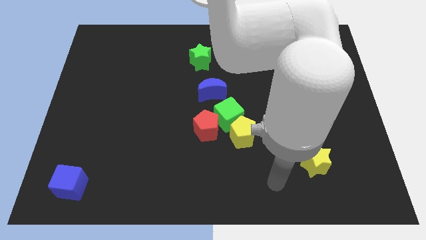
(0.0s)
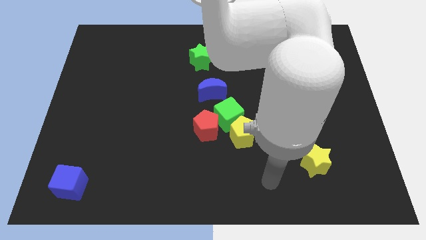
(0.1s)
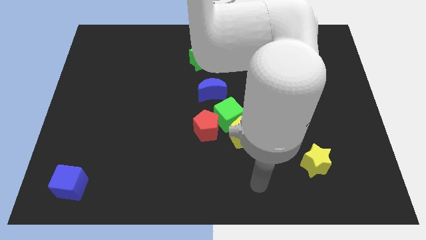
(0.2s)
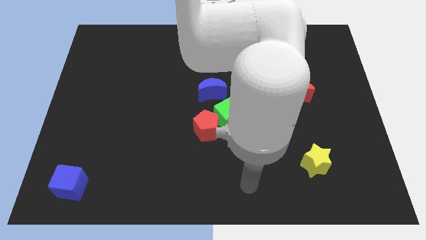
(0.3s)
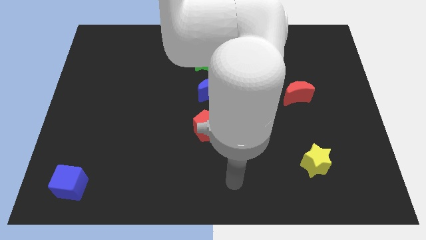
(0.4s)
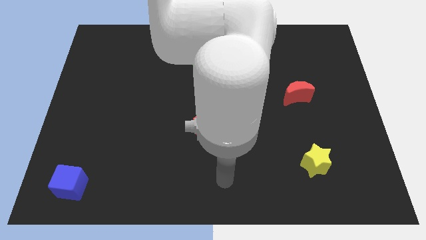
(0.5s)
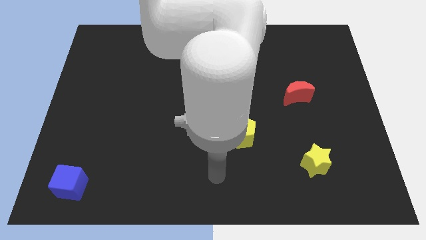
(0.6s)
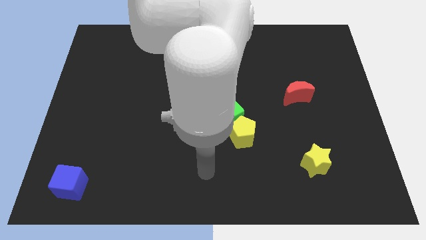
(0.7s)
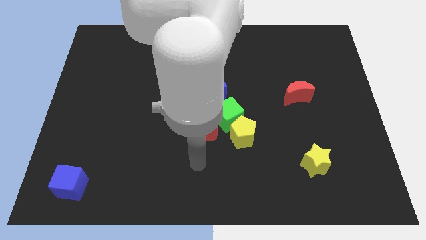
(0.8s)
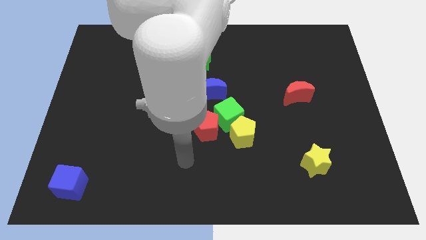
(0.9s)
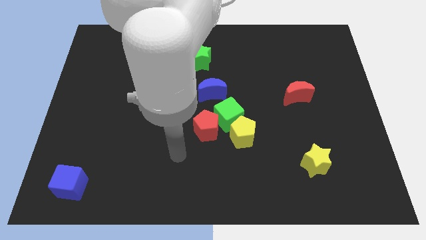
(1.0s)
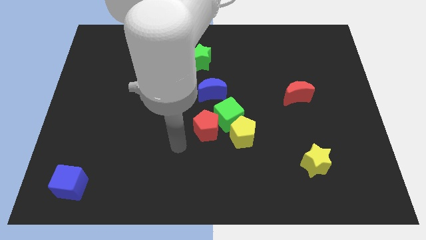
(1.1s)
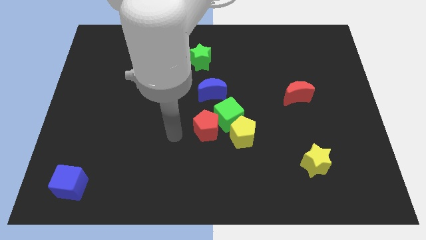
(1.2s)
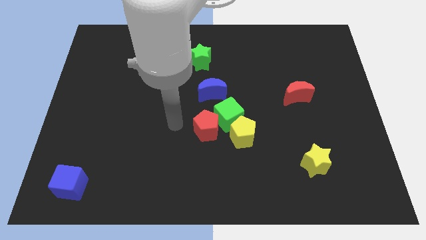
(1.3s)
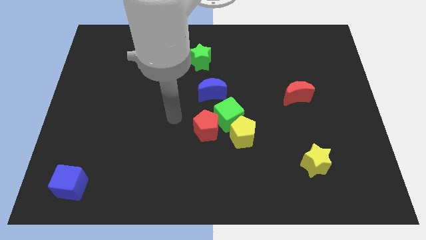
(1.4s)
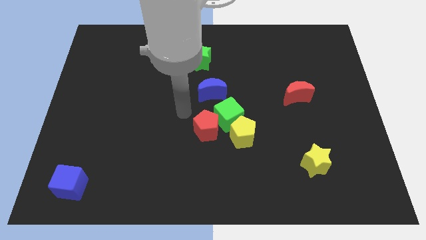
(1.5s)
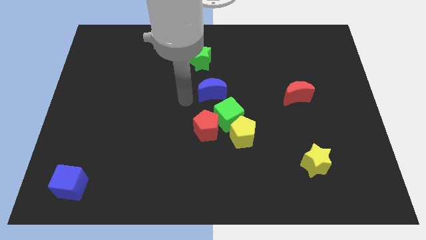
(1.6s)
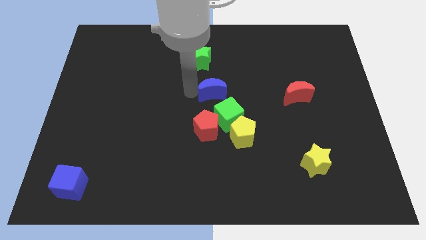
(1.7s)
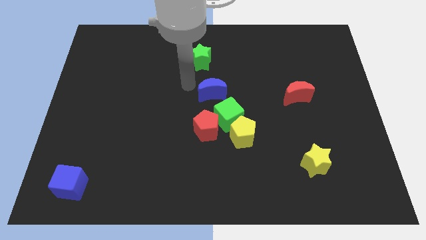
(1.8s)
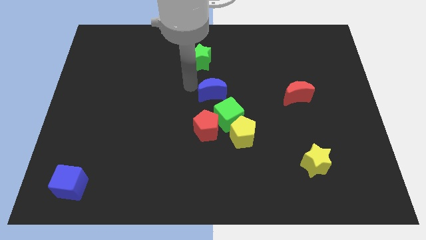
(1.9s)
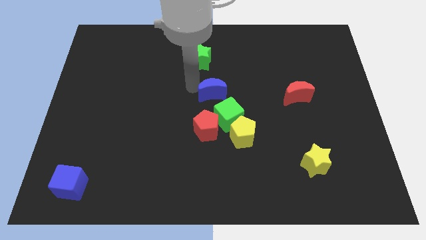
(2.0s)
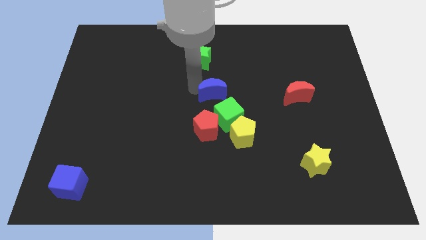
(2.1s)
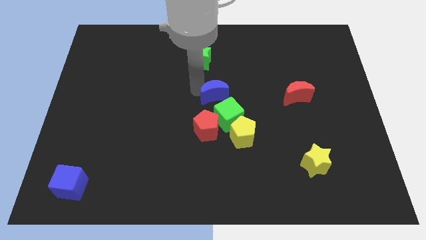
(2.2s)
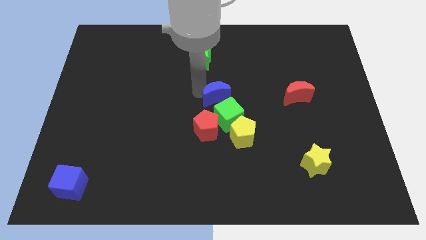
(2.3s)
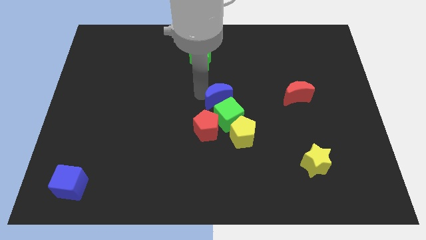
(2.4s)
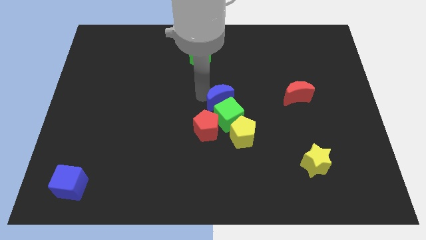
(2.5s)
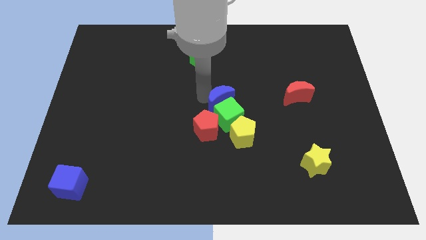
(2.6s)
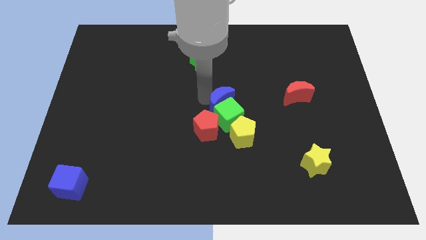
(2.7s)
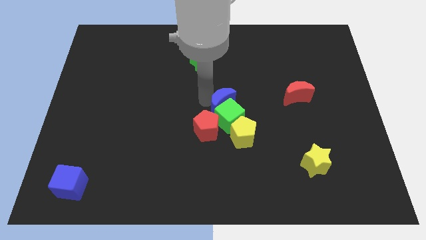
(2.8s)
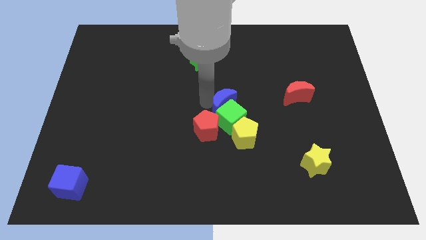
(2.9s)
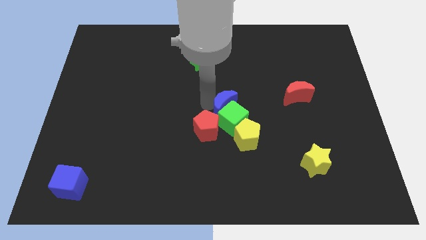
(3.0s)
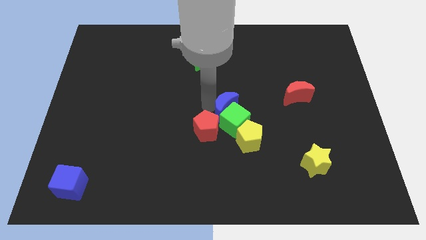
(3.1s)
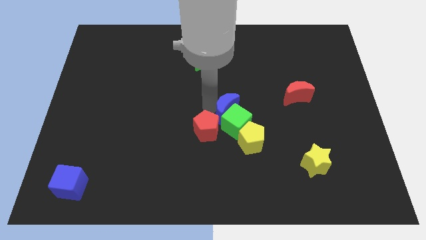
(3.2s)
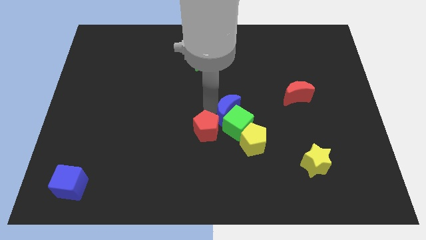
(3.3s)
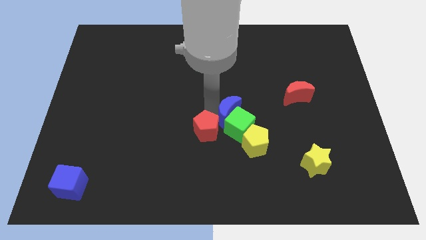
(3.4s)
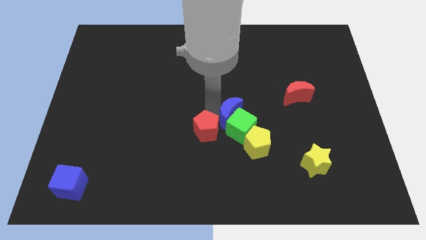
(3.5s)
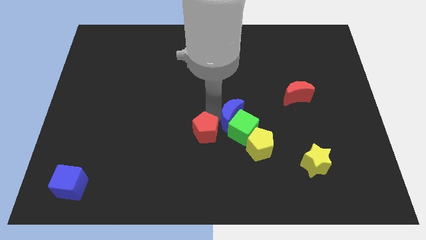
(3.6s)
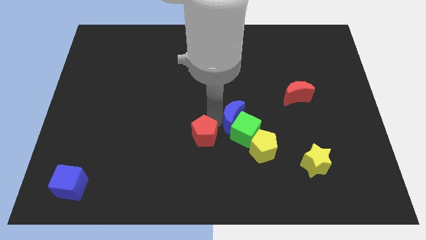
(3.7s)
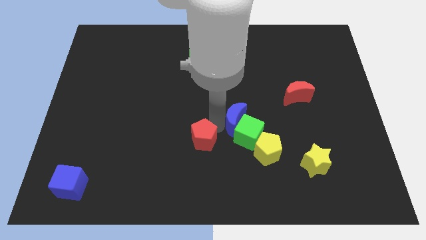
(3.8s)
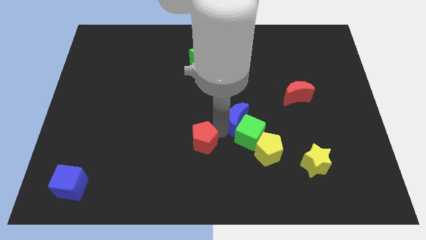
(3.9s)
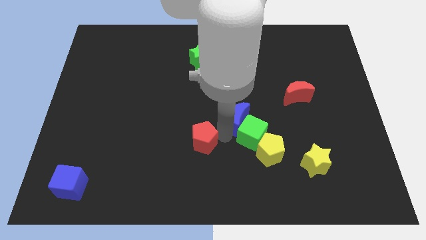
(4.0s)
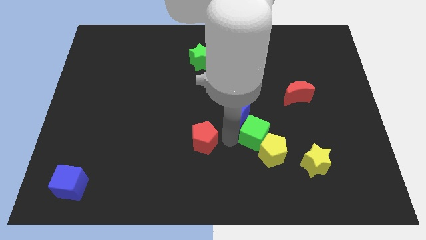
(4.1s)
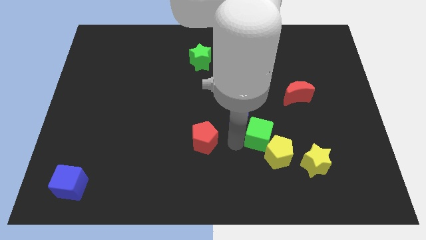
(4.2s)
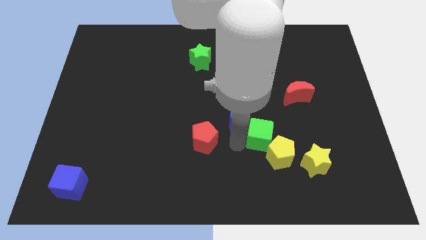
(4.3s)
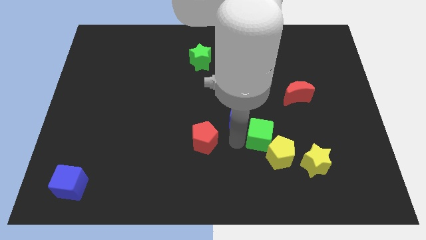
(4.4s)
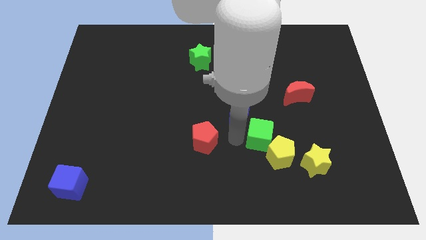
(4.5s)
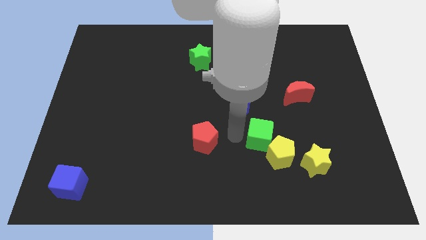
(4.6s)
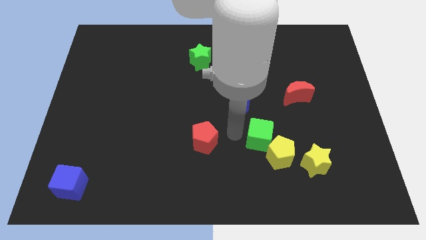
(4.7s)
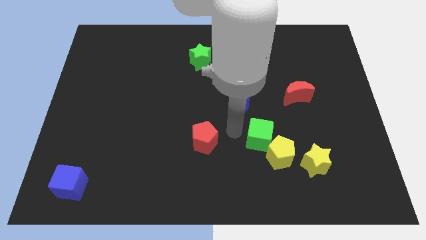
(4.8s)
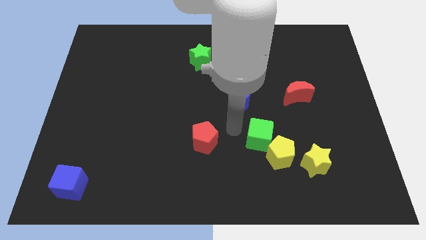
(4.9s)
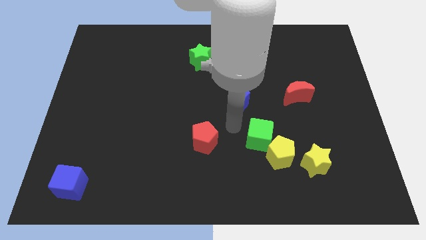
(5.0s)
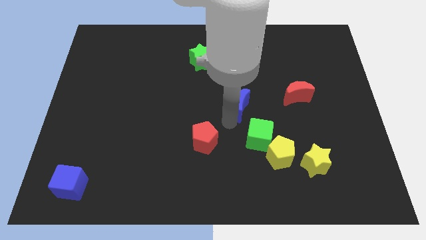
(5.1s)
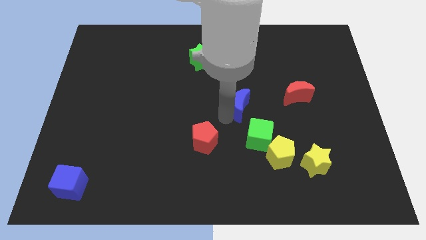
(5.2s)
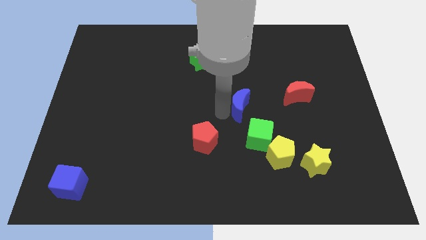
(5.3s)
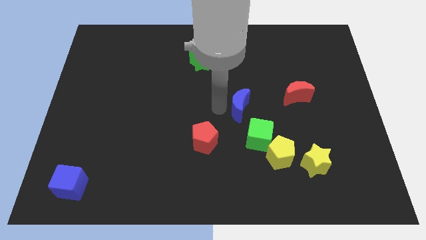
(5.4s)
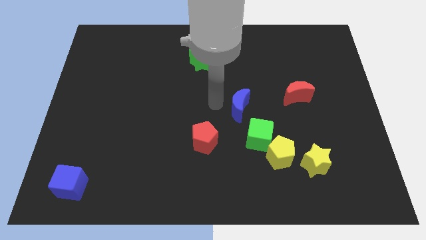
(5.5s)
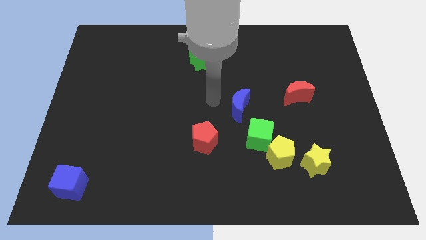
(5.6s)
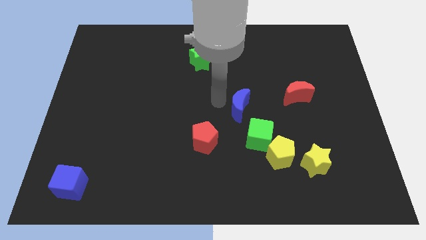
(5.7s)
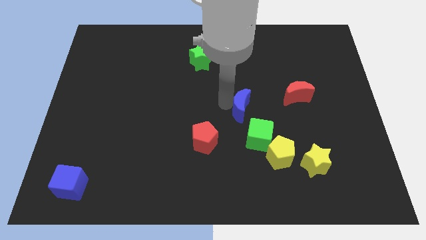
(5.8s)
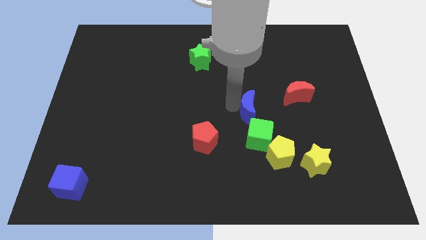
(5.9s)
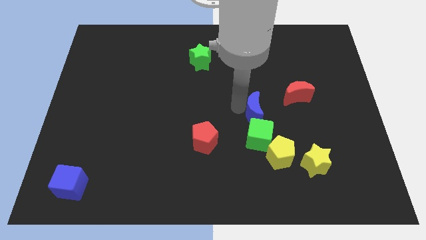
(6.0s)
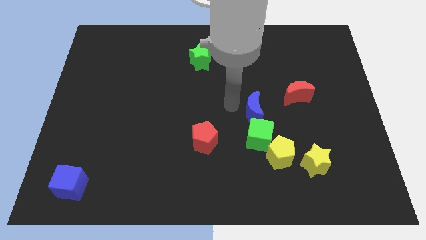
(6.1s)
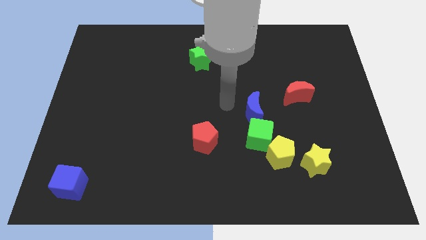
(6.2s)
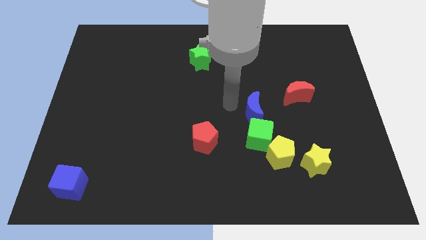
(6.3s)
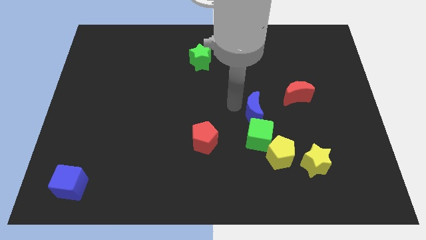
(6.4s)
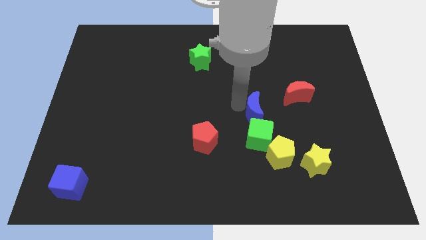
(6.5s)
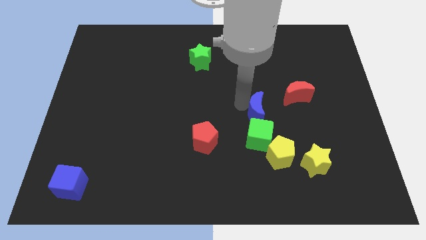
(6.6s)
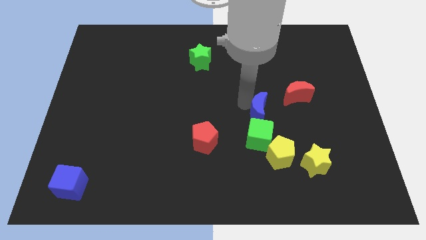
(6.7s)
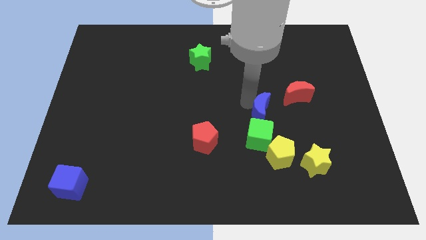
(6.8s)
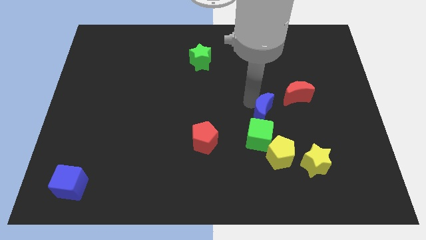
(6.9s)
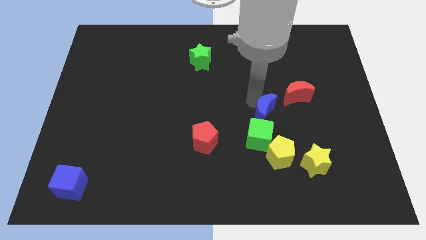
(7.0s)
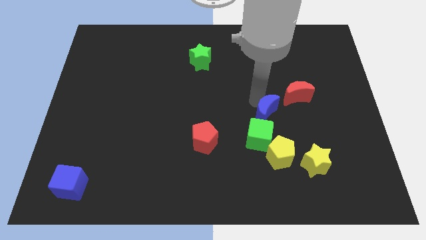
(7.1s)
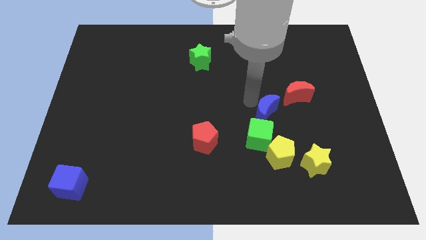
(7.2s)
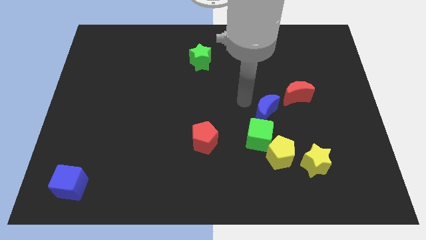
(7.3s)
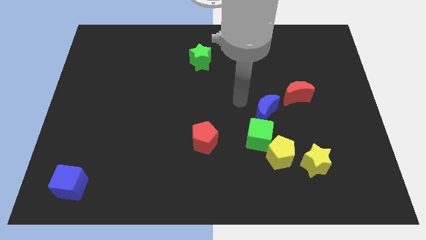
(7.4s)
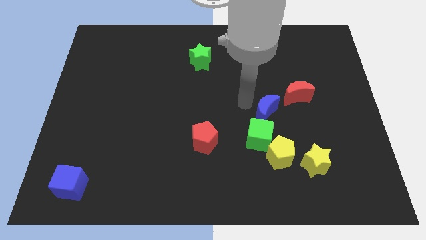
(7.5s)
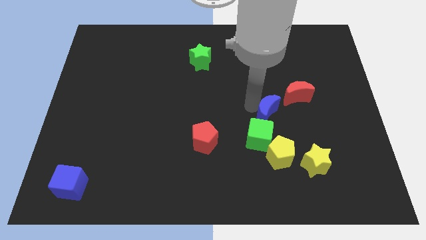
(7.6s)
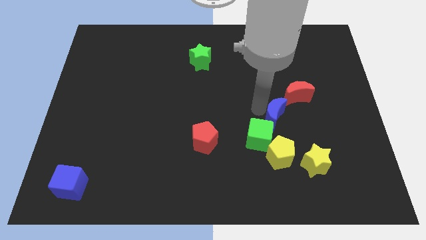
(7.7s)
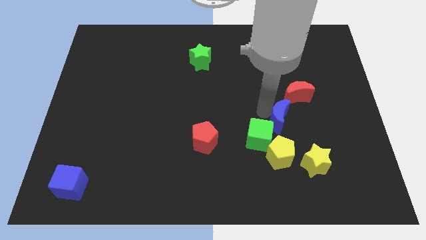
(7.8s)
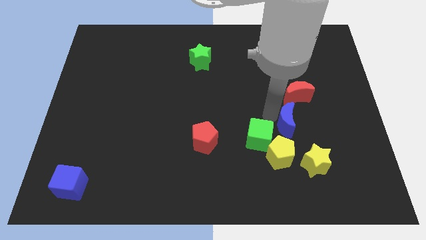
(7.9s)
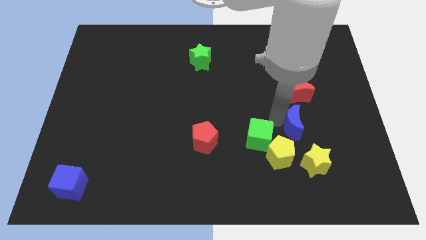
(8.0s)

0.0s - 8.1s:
put the blue moon to the top side of the yellow star
